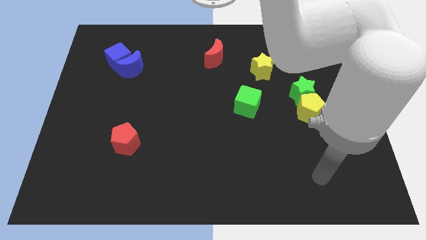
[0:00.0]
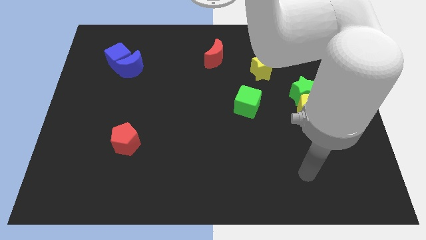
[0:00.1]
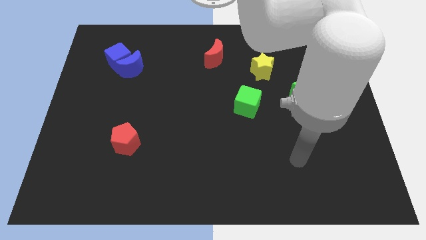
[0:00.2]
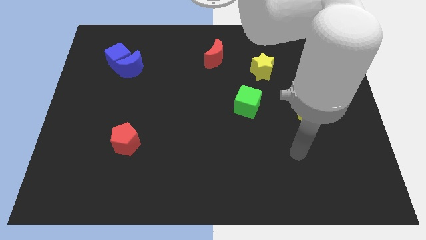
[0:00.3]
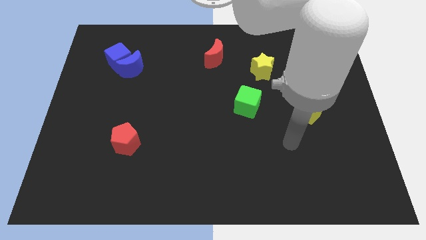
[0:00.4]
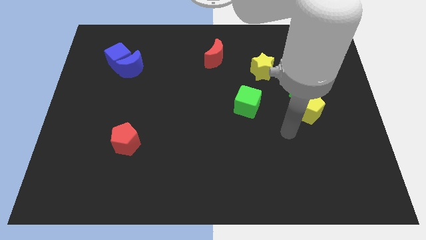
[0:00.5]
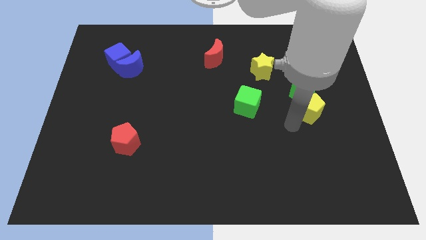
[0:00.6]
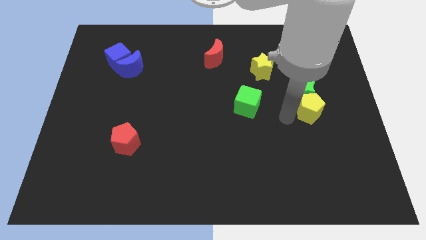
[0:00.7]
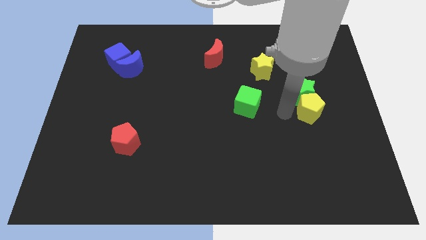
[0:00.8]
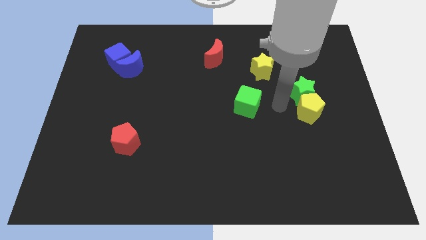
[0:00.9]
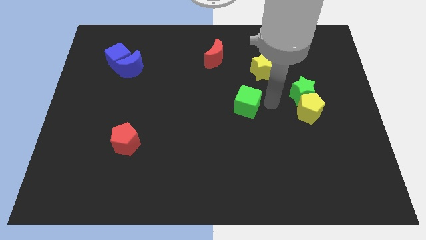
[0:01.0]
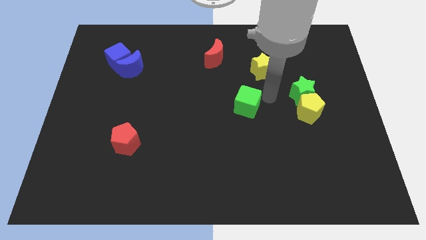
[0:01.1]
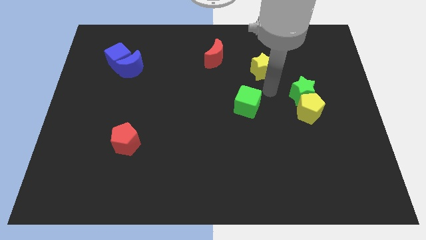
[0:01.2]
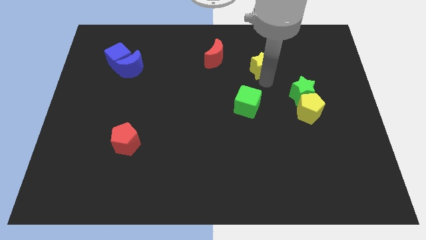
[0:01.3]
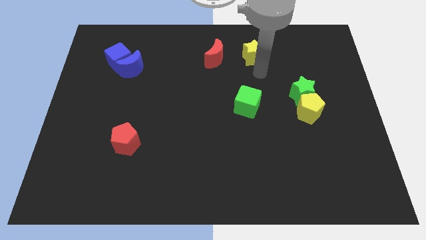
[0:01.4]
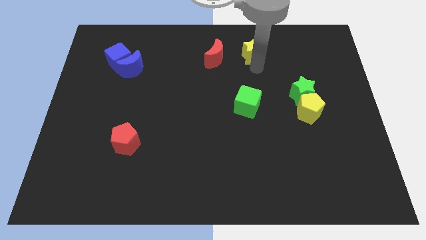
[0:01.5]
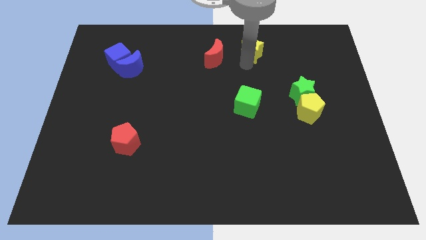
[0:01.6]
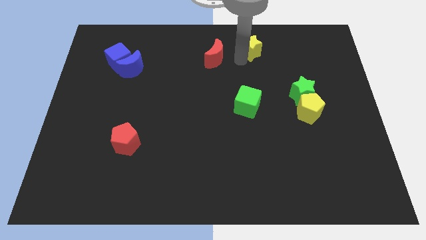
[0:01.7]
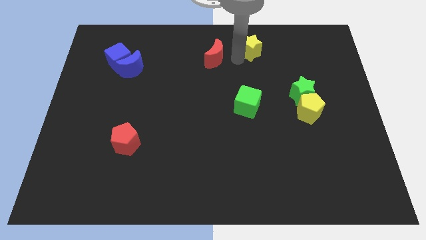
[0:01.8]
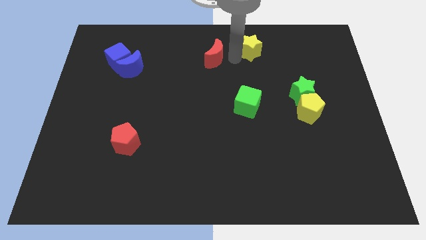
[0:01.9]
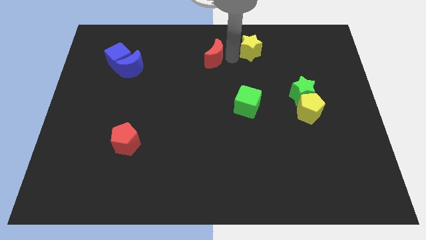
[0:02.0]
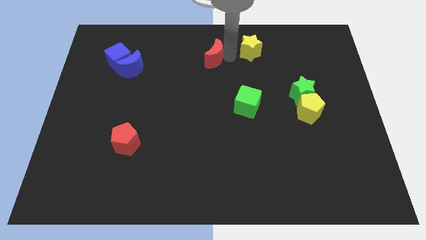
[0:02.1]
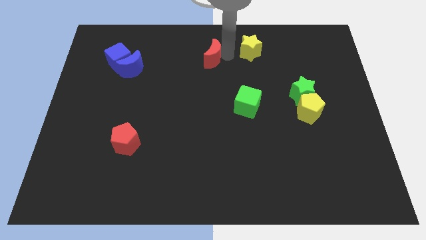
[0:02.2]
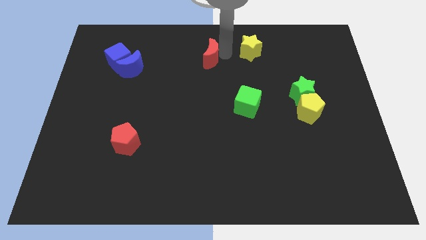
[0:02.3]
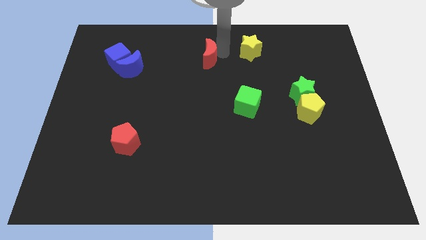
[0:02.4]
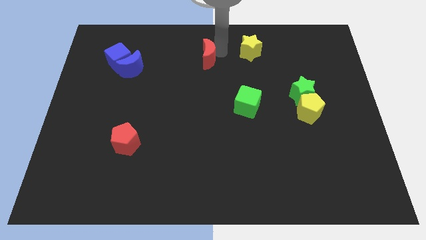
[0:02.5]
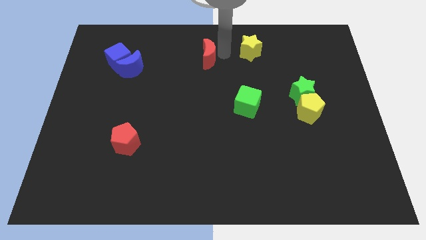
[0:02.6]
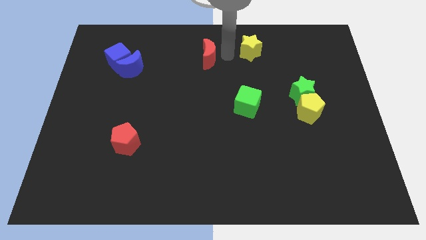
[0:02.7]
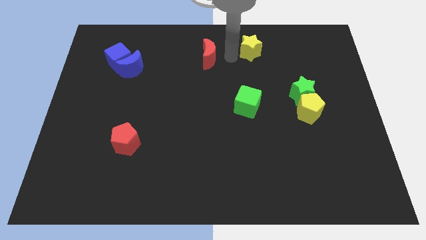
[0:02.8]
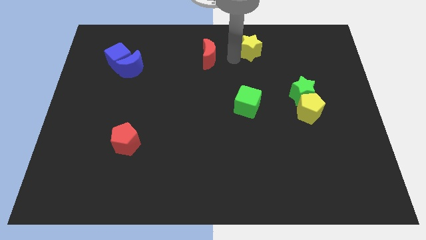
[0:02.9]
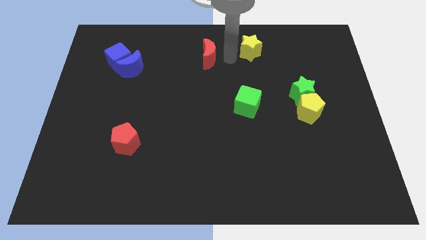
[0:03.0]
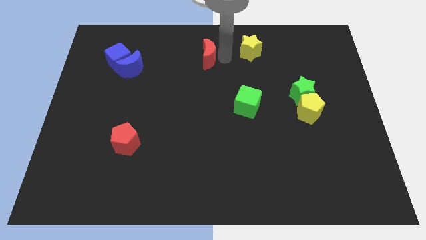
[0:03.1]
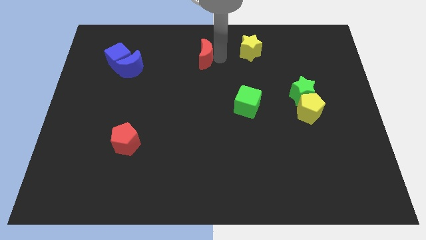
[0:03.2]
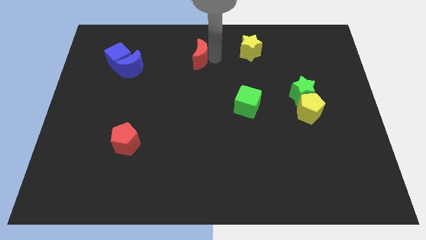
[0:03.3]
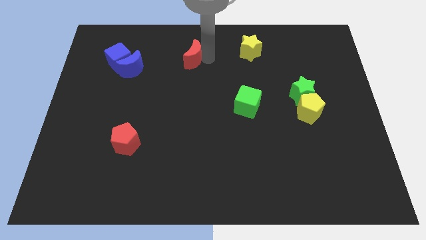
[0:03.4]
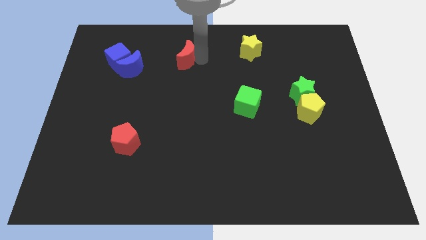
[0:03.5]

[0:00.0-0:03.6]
move the red moon left a little bit

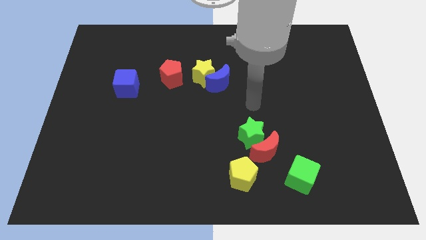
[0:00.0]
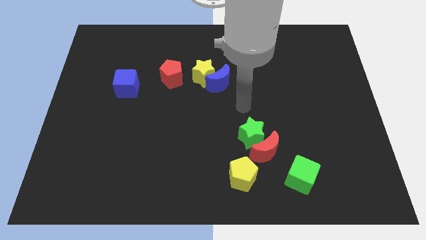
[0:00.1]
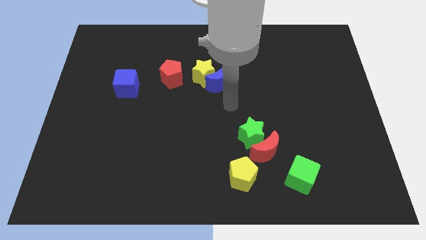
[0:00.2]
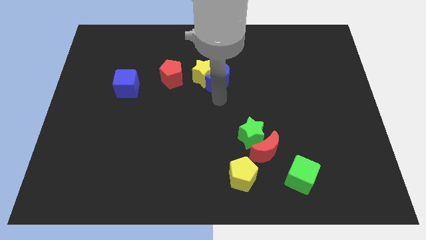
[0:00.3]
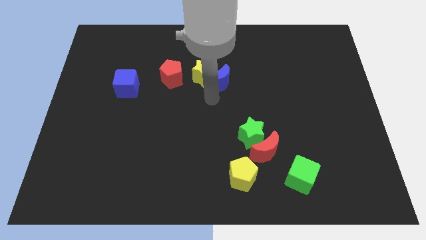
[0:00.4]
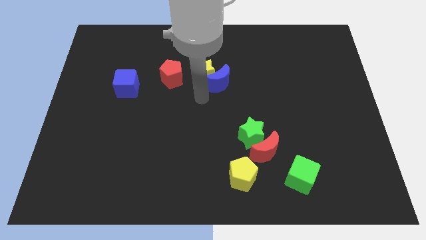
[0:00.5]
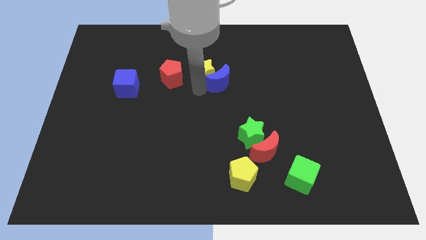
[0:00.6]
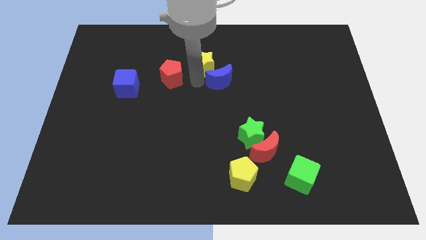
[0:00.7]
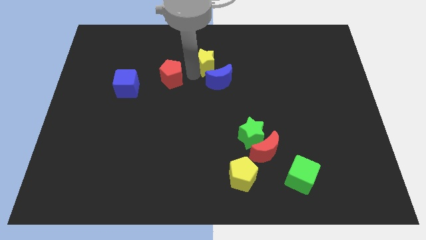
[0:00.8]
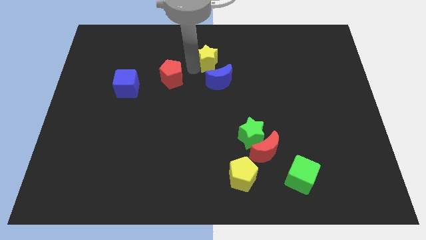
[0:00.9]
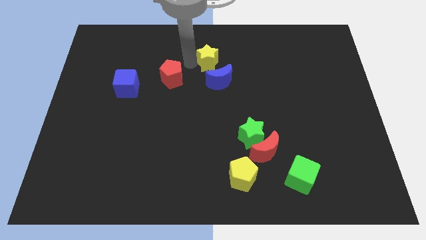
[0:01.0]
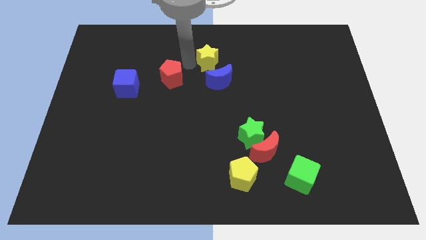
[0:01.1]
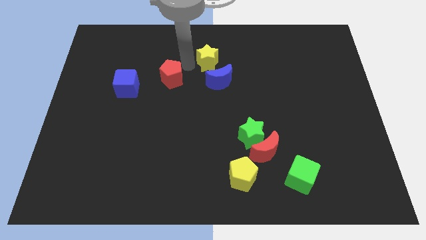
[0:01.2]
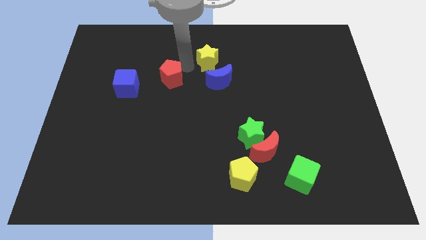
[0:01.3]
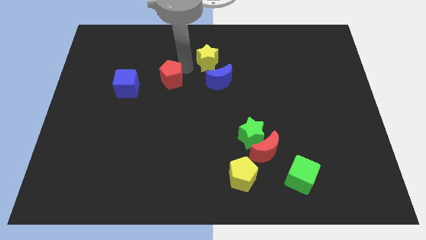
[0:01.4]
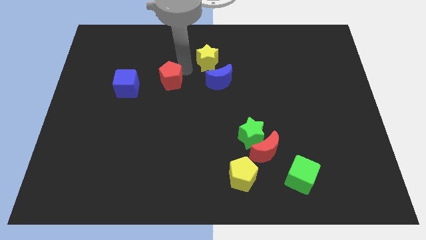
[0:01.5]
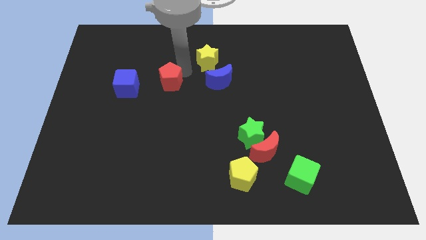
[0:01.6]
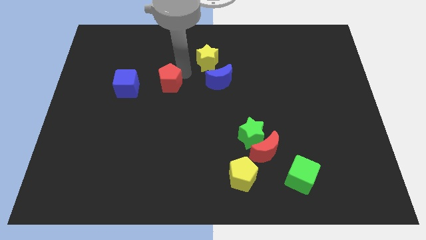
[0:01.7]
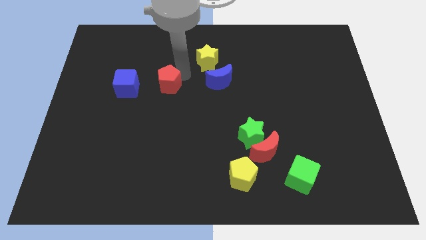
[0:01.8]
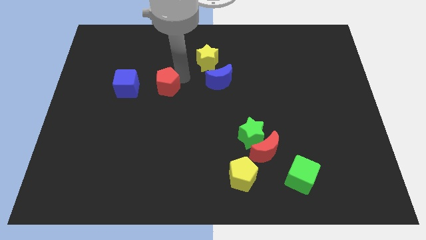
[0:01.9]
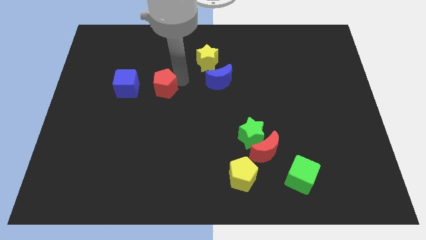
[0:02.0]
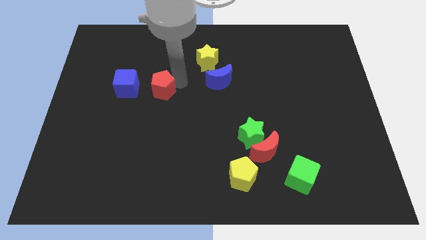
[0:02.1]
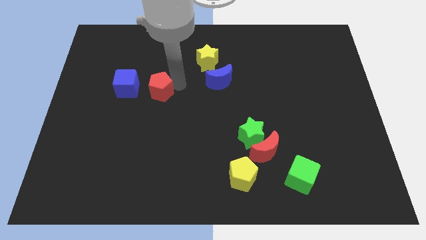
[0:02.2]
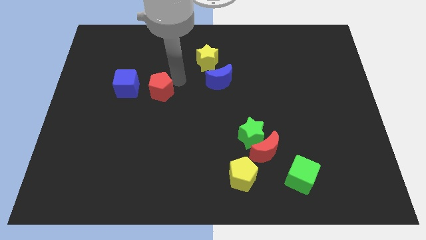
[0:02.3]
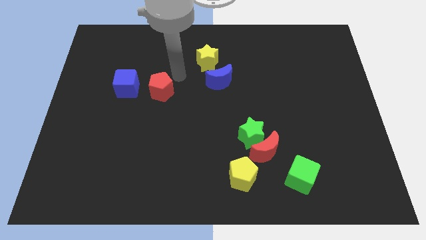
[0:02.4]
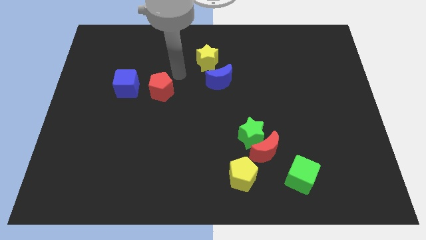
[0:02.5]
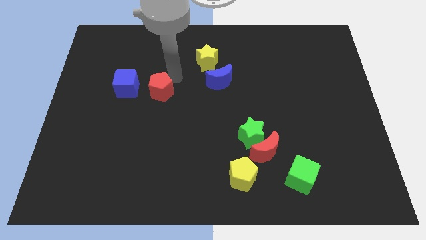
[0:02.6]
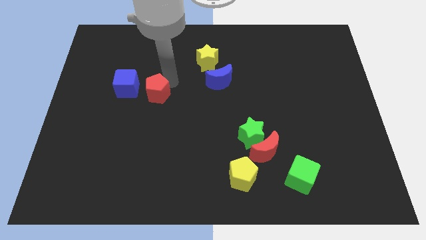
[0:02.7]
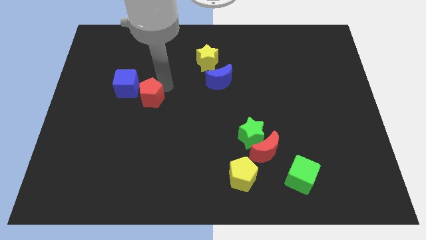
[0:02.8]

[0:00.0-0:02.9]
slightly move the red pentagon downwards and left

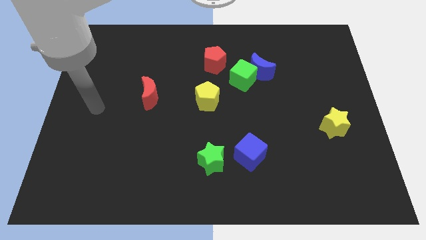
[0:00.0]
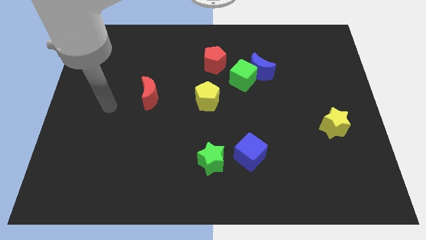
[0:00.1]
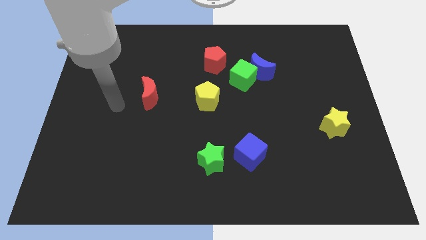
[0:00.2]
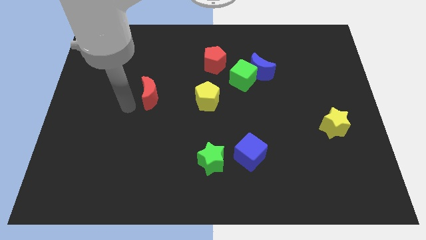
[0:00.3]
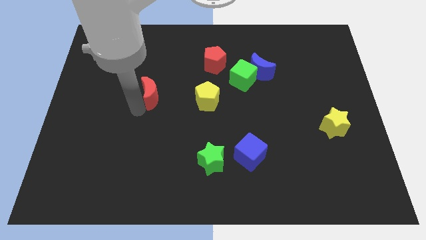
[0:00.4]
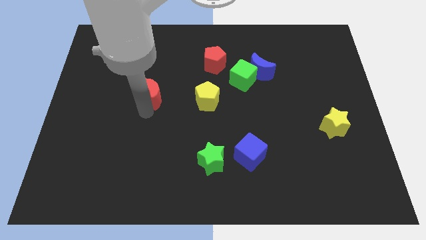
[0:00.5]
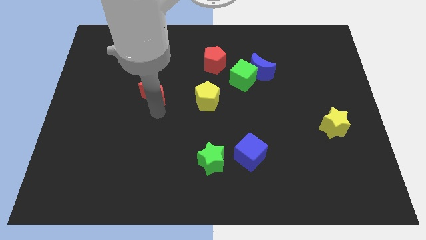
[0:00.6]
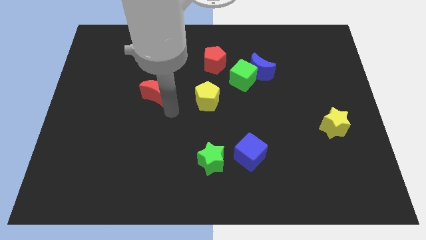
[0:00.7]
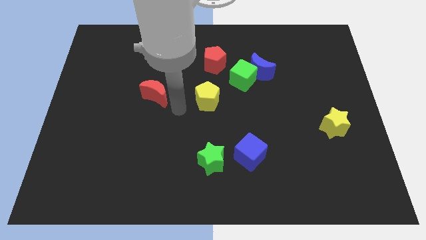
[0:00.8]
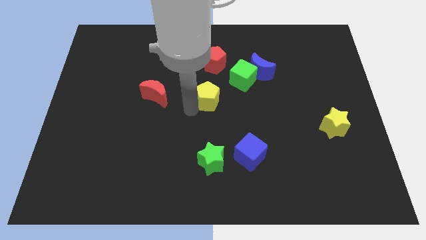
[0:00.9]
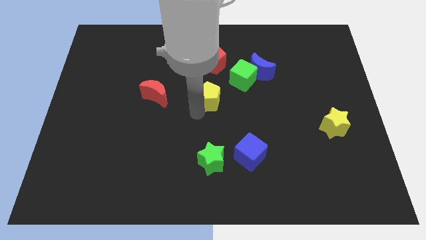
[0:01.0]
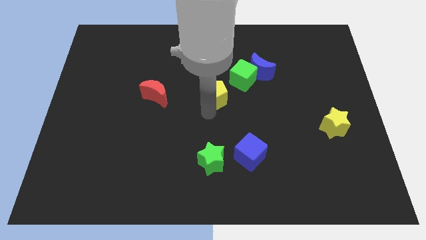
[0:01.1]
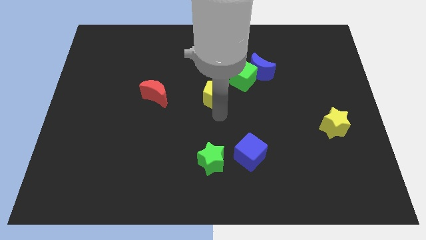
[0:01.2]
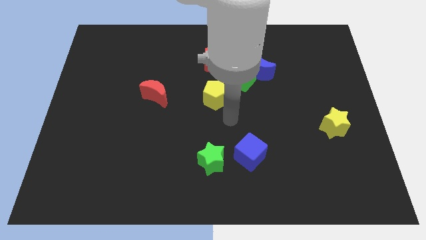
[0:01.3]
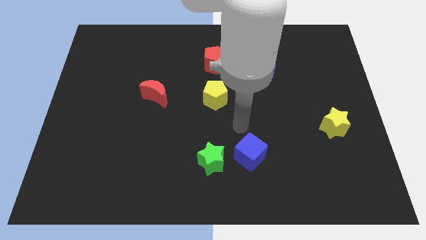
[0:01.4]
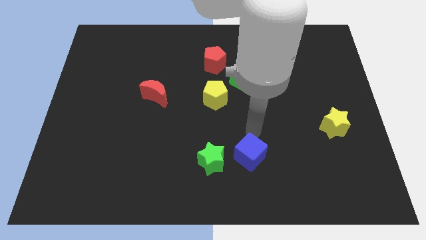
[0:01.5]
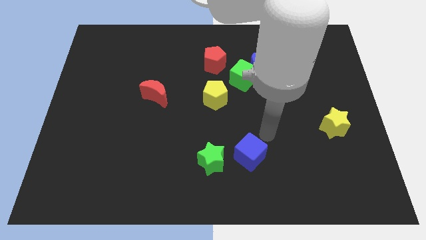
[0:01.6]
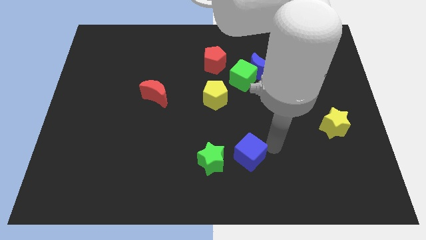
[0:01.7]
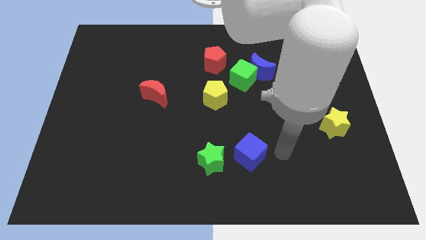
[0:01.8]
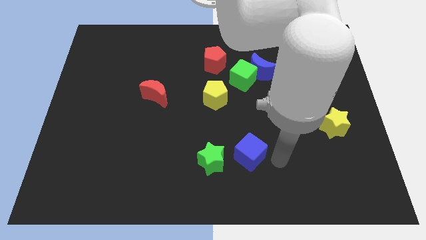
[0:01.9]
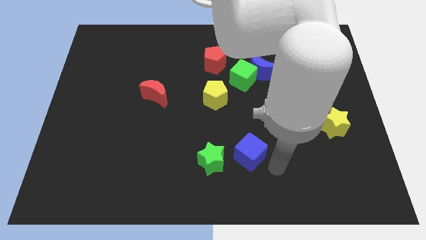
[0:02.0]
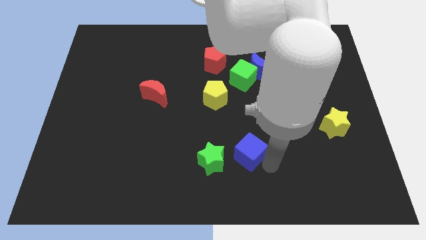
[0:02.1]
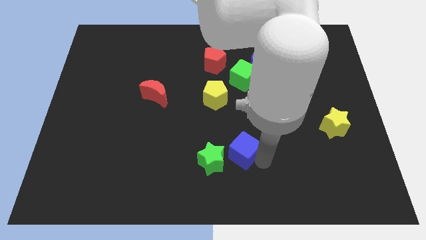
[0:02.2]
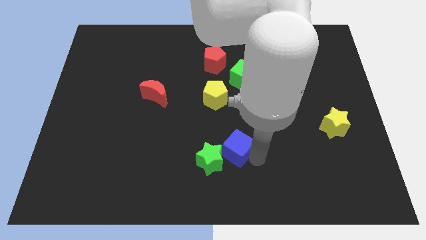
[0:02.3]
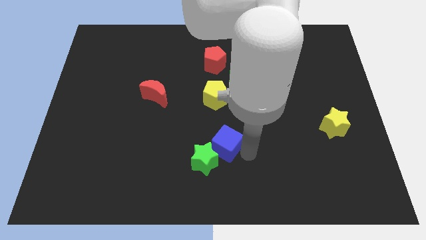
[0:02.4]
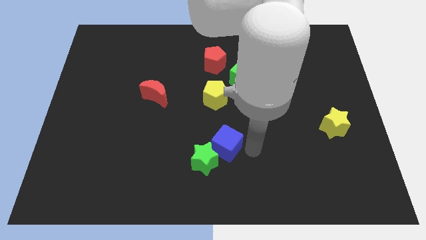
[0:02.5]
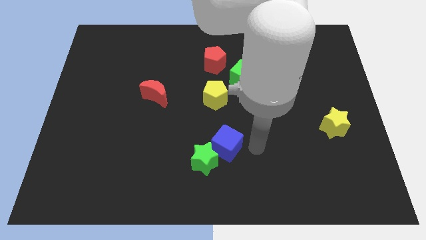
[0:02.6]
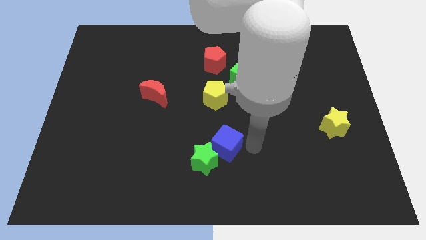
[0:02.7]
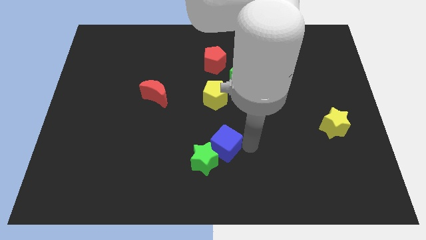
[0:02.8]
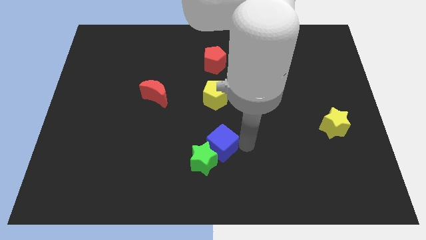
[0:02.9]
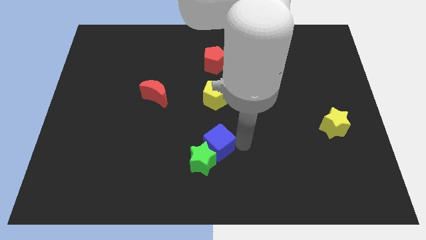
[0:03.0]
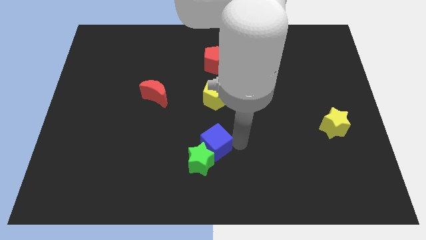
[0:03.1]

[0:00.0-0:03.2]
push the blue cube a bit left
